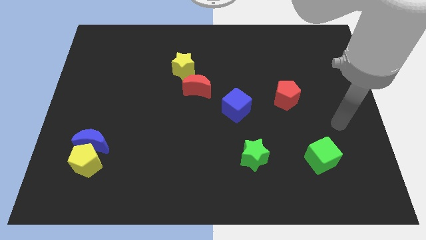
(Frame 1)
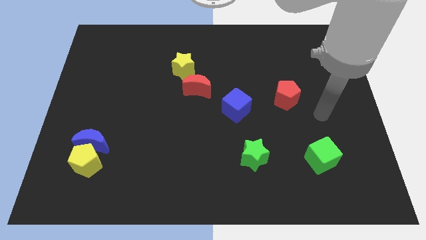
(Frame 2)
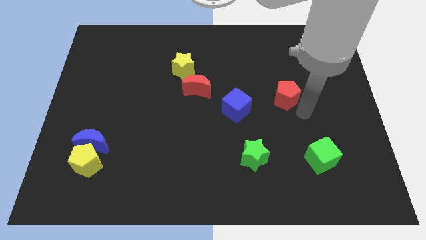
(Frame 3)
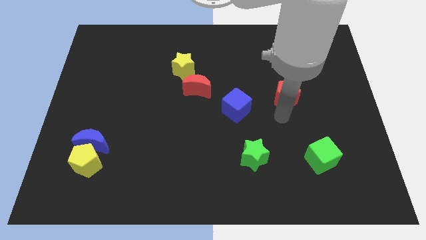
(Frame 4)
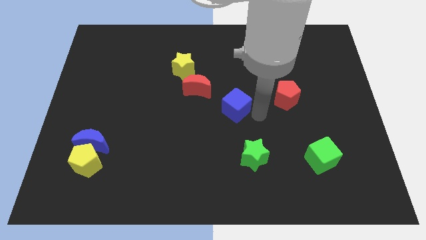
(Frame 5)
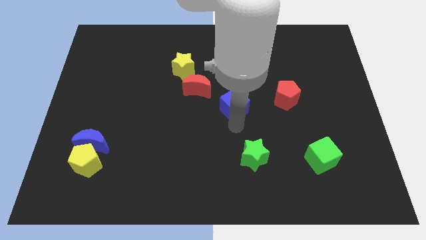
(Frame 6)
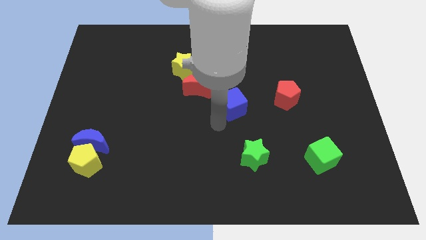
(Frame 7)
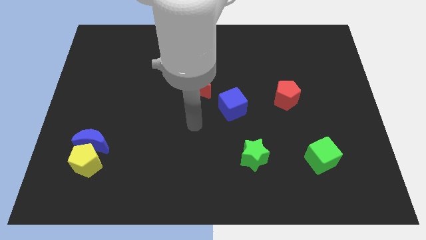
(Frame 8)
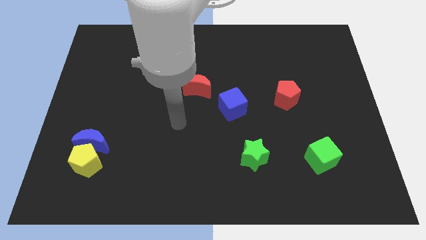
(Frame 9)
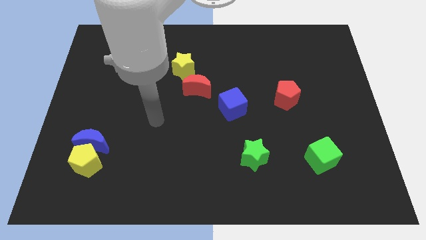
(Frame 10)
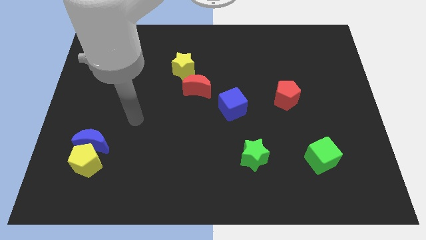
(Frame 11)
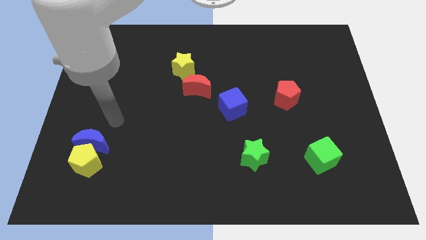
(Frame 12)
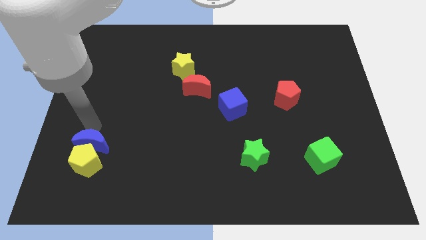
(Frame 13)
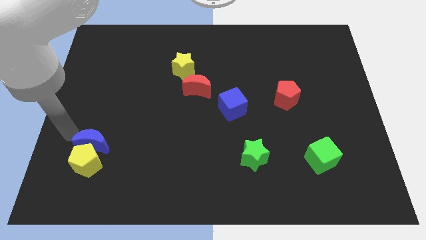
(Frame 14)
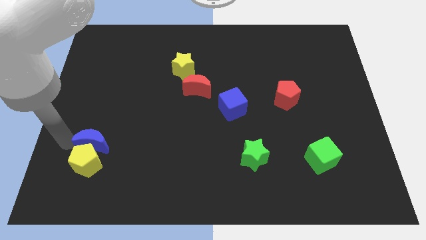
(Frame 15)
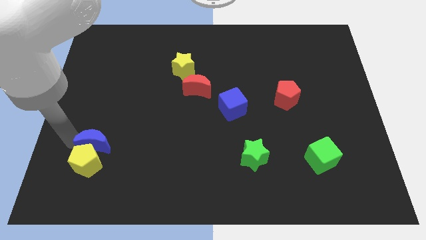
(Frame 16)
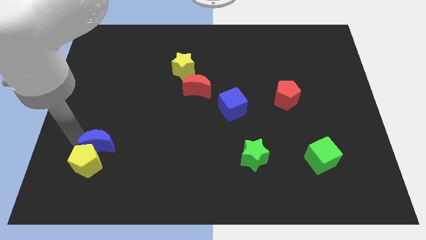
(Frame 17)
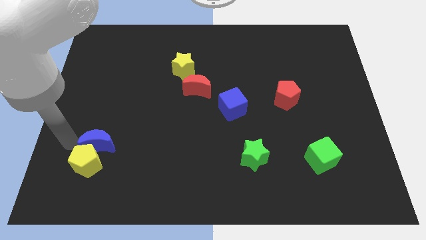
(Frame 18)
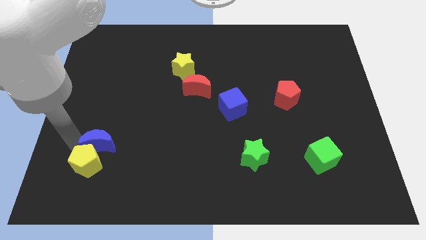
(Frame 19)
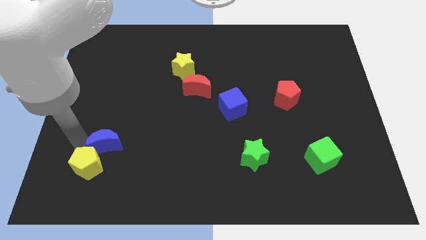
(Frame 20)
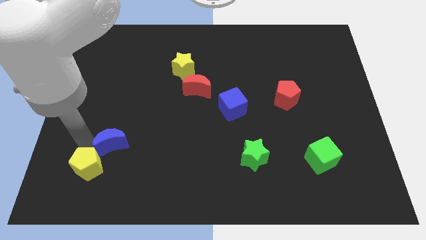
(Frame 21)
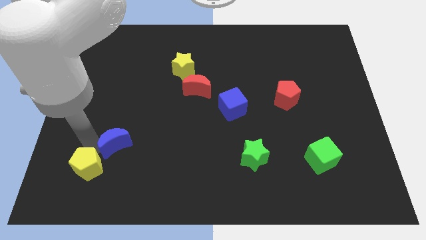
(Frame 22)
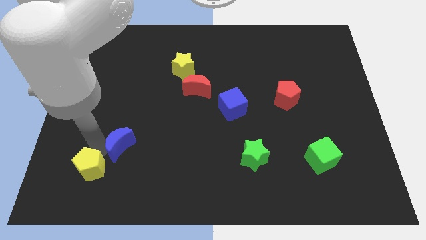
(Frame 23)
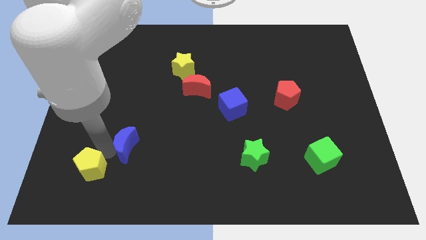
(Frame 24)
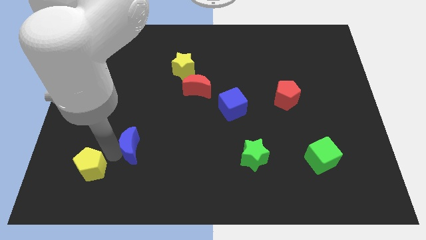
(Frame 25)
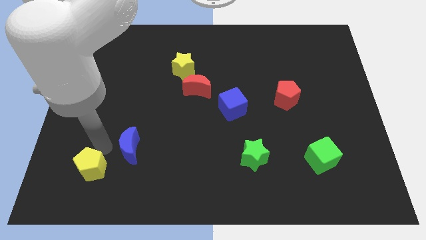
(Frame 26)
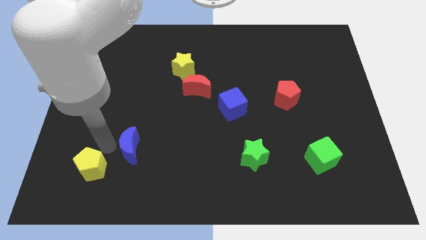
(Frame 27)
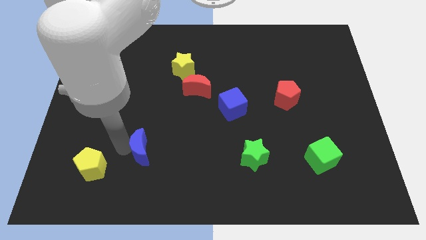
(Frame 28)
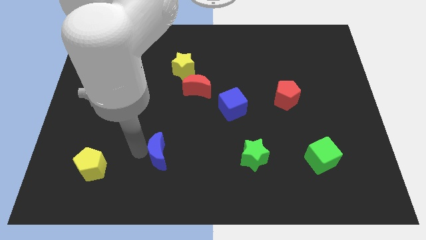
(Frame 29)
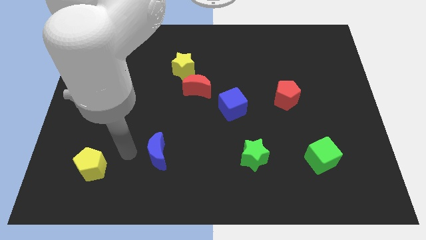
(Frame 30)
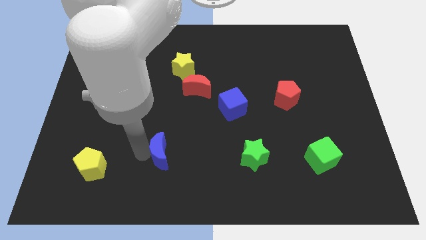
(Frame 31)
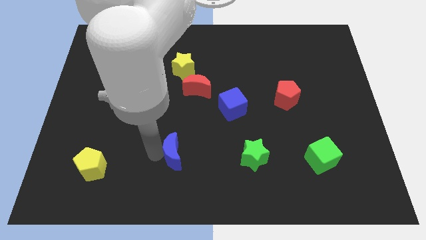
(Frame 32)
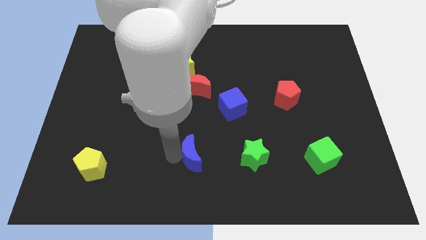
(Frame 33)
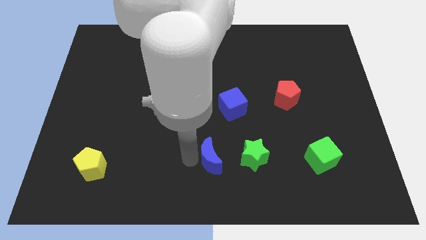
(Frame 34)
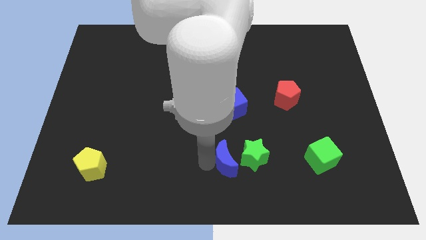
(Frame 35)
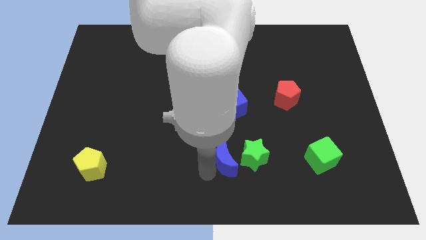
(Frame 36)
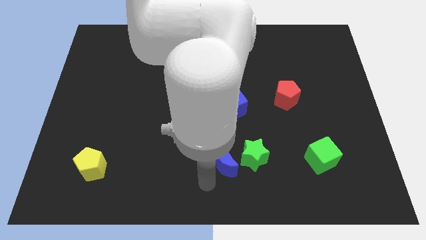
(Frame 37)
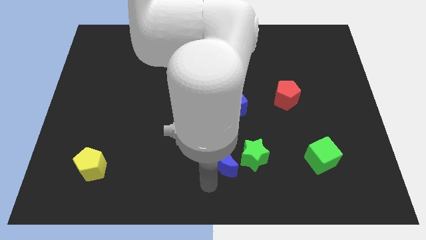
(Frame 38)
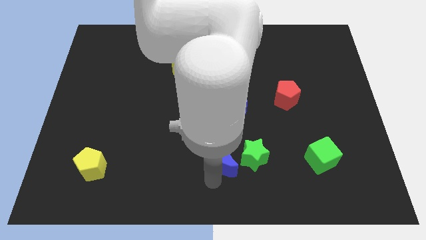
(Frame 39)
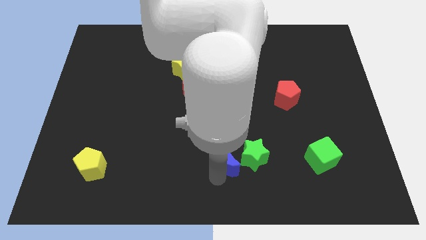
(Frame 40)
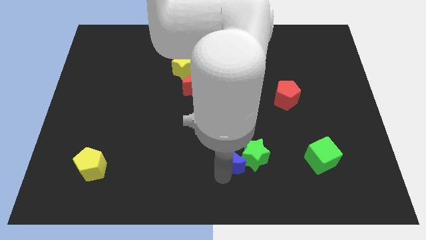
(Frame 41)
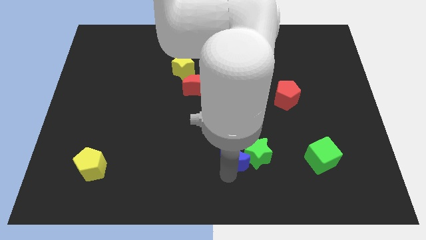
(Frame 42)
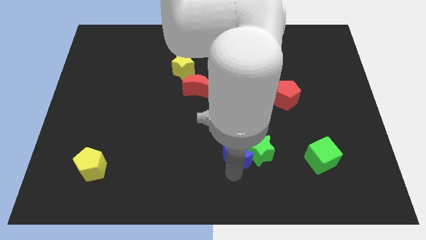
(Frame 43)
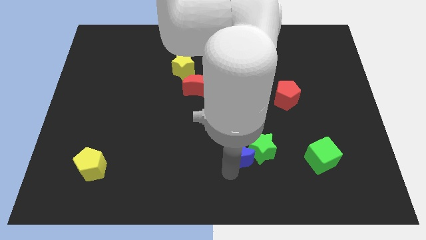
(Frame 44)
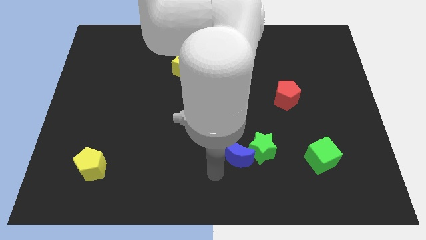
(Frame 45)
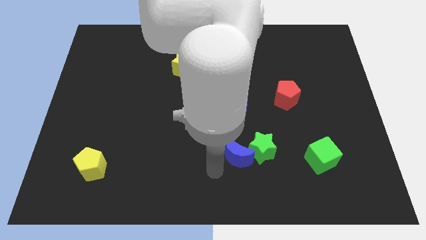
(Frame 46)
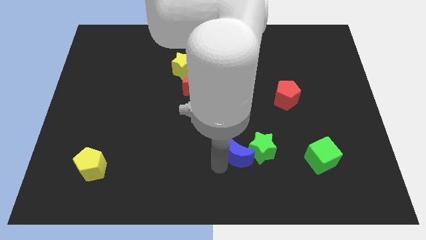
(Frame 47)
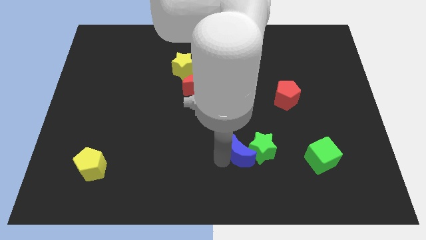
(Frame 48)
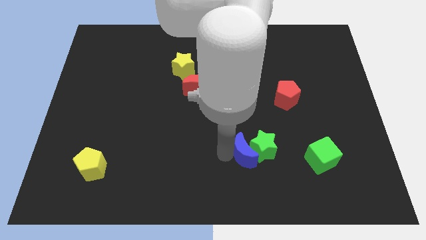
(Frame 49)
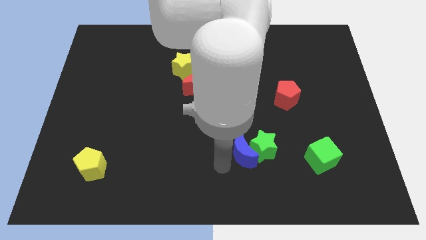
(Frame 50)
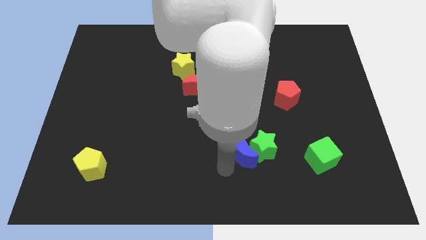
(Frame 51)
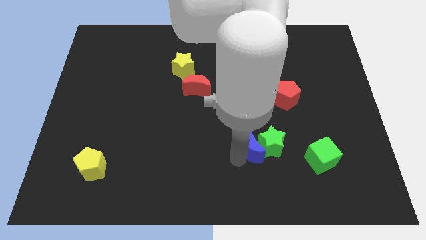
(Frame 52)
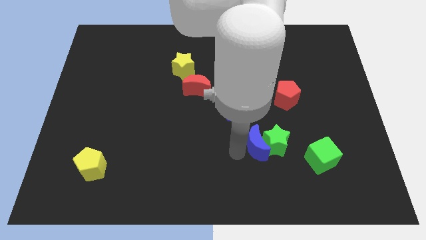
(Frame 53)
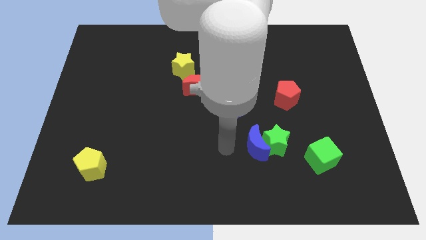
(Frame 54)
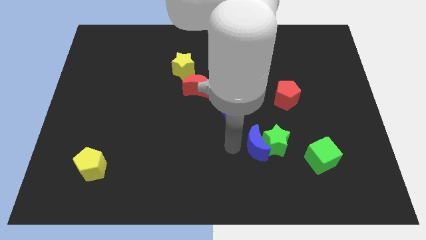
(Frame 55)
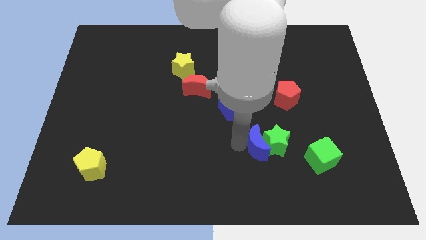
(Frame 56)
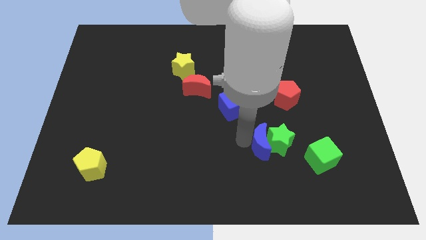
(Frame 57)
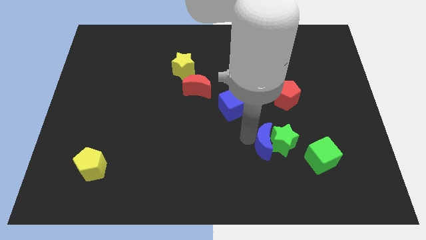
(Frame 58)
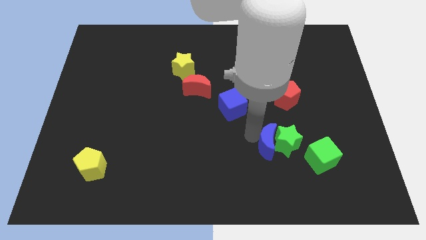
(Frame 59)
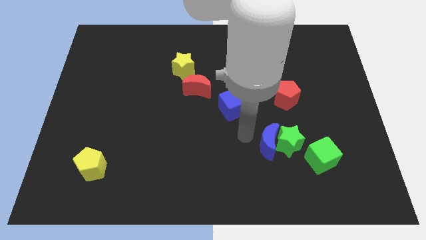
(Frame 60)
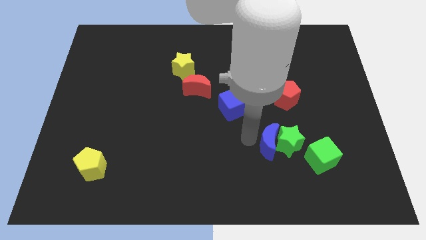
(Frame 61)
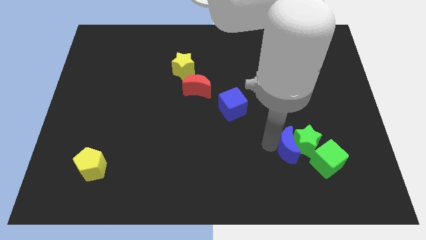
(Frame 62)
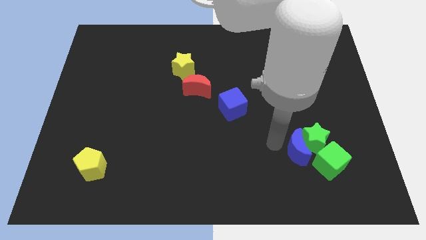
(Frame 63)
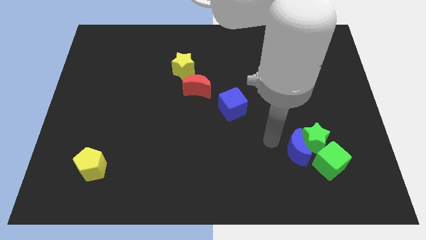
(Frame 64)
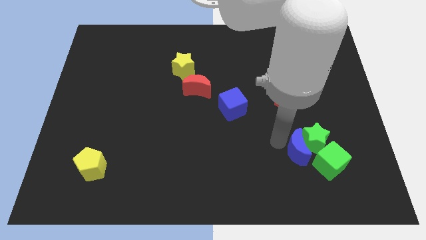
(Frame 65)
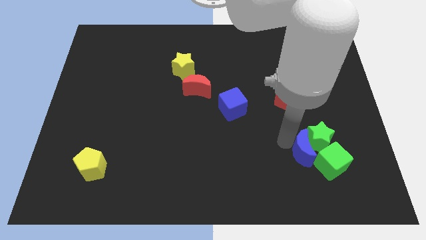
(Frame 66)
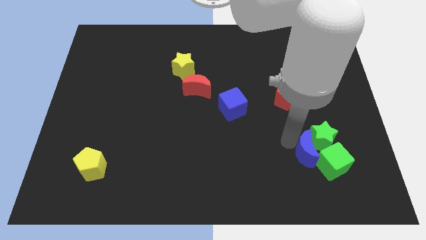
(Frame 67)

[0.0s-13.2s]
put the blue moon to the green cube
